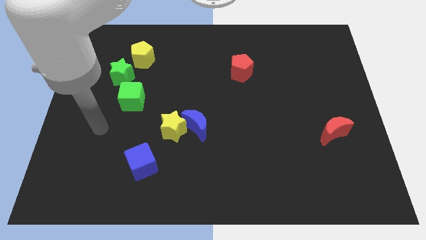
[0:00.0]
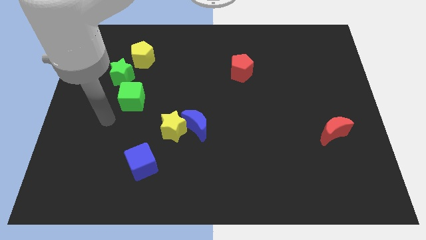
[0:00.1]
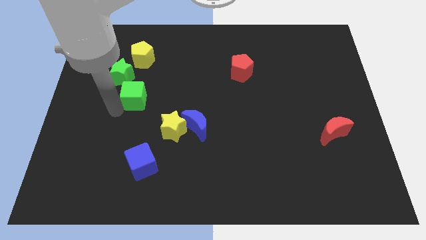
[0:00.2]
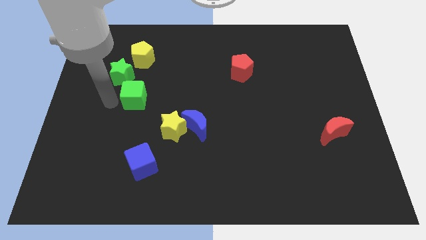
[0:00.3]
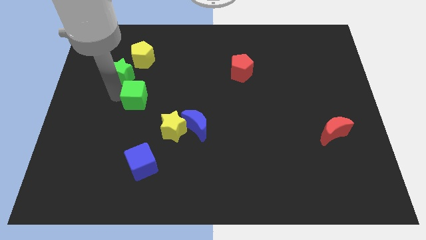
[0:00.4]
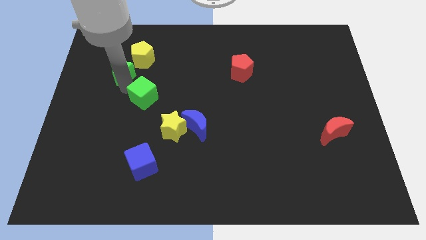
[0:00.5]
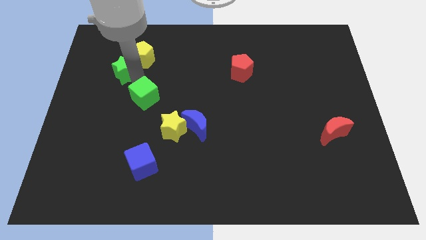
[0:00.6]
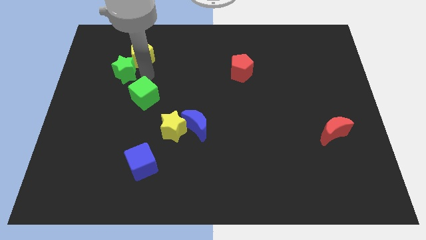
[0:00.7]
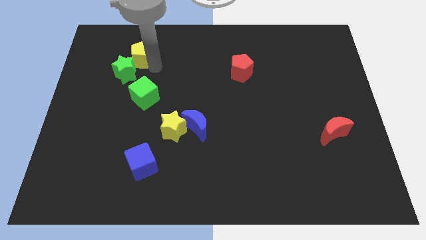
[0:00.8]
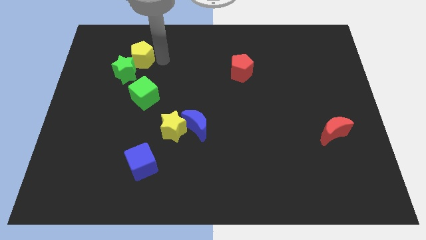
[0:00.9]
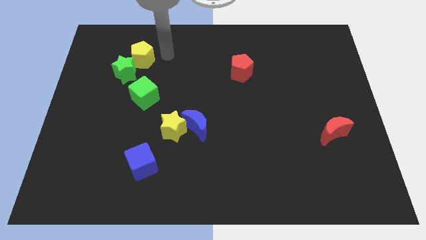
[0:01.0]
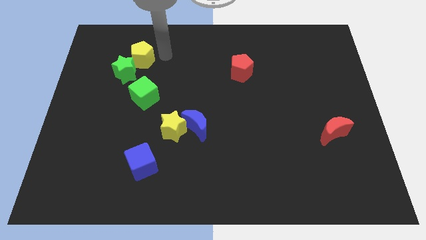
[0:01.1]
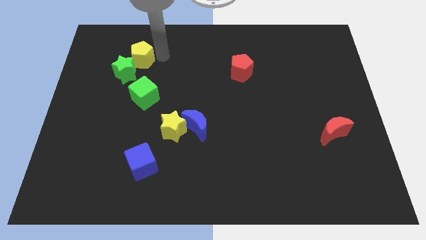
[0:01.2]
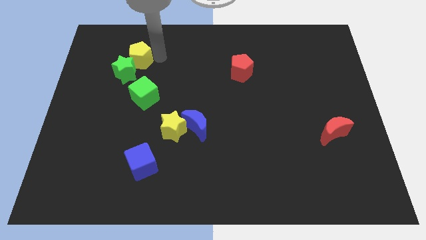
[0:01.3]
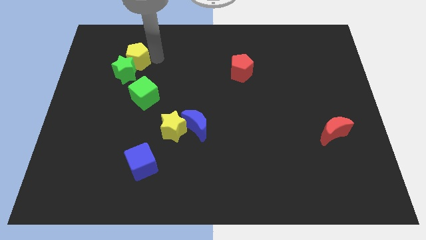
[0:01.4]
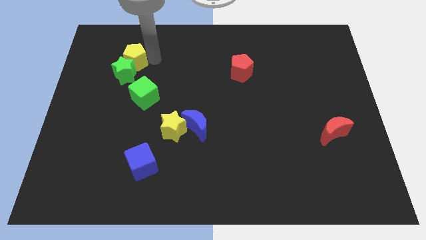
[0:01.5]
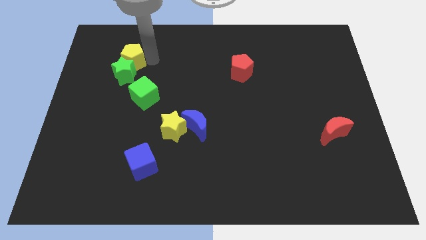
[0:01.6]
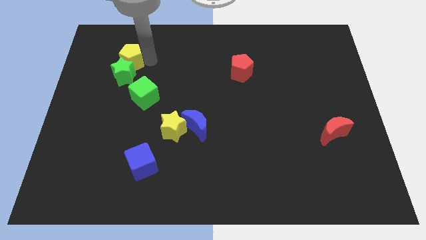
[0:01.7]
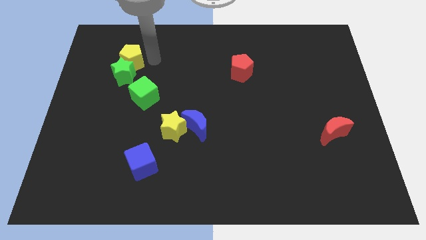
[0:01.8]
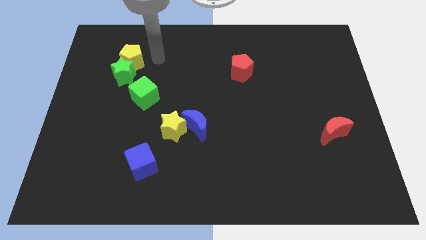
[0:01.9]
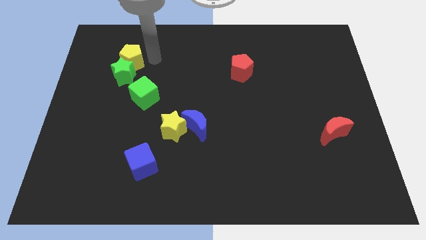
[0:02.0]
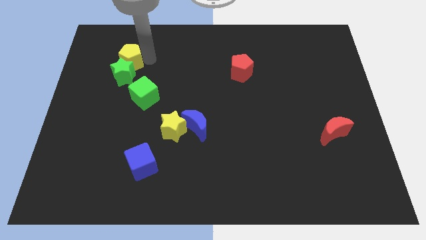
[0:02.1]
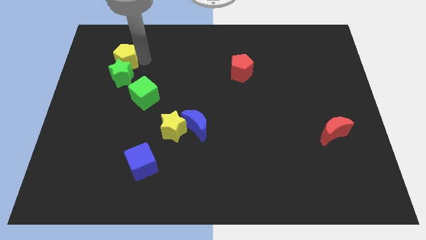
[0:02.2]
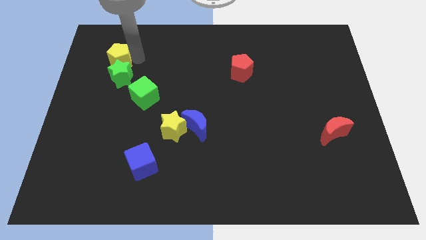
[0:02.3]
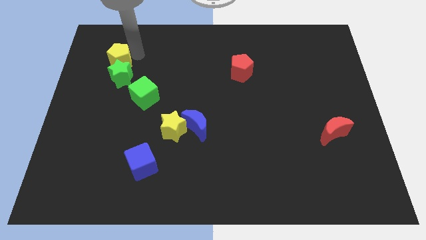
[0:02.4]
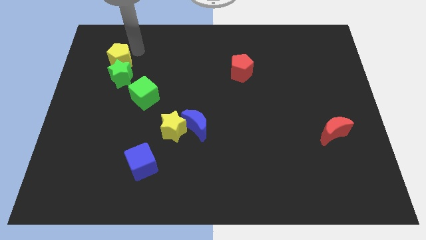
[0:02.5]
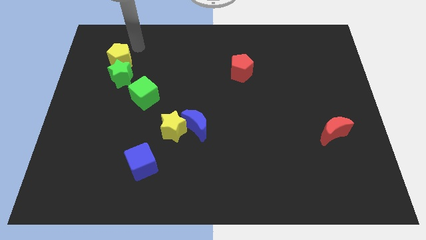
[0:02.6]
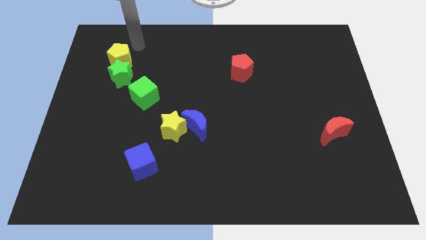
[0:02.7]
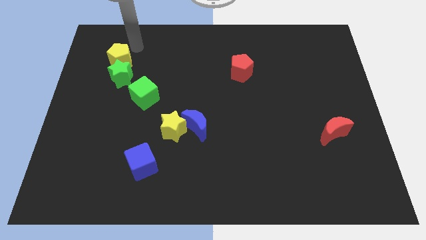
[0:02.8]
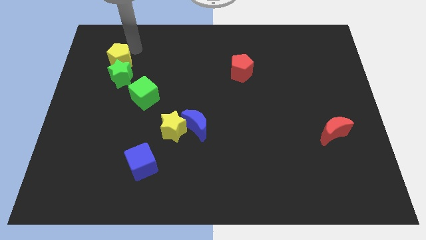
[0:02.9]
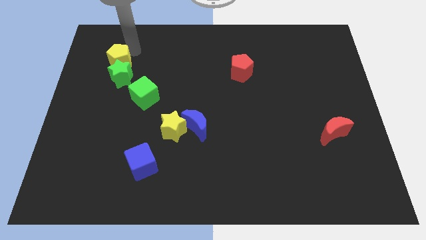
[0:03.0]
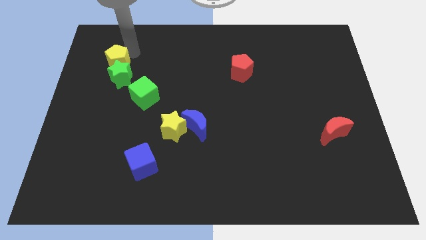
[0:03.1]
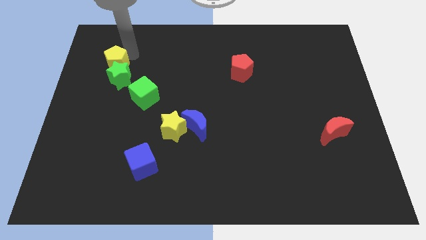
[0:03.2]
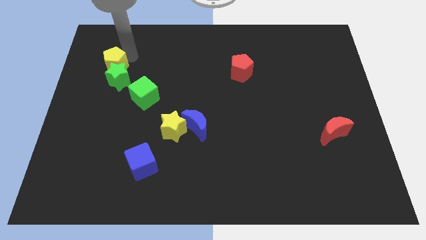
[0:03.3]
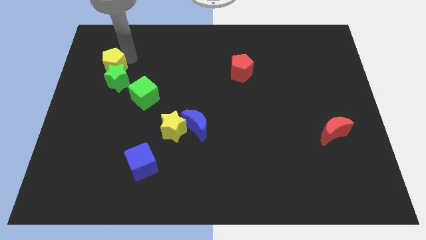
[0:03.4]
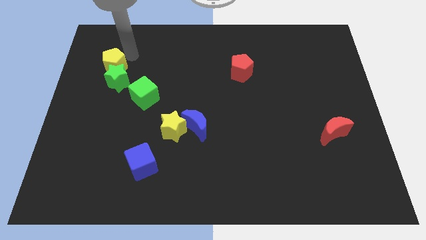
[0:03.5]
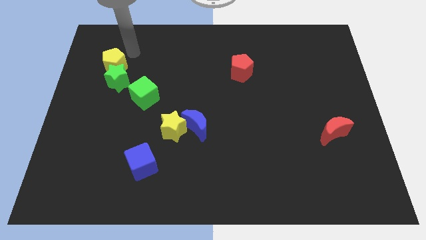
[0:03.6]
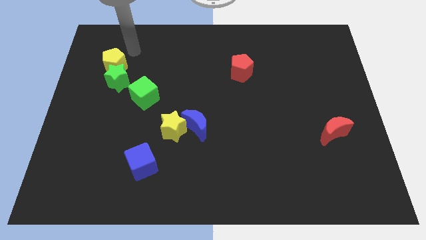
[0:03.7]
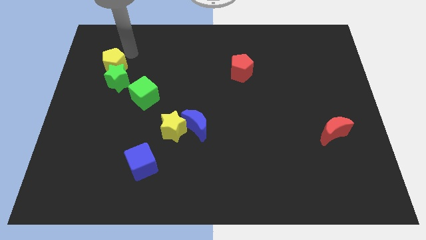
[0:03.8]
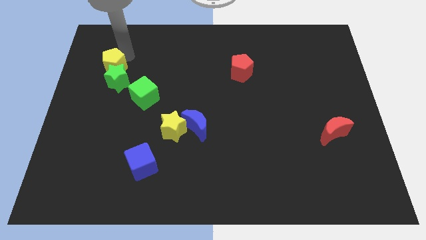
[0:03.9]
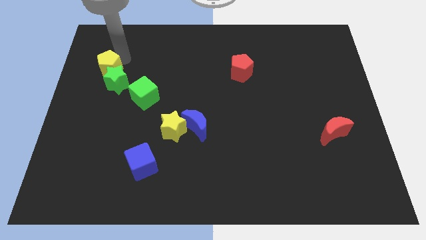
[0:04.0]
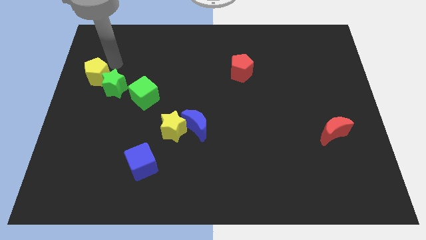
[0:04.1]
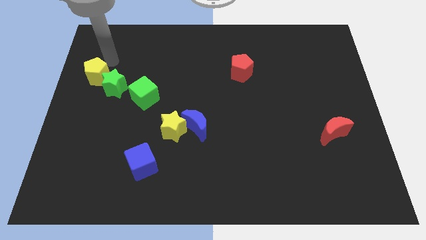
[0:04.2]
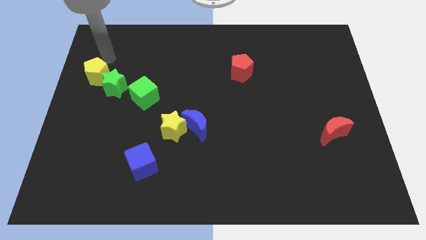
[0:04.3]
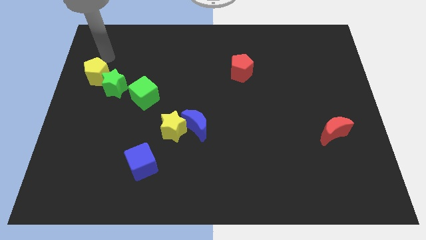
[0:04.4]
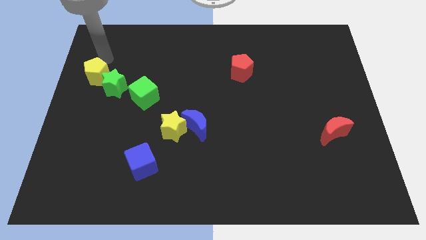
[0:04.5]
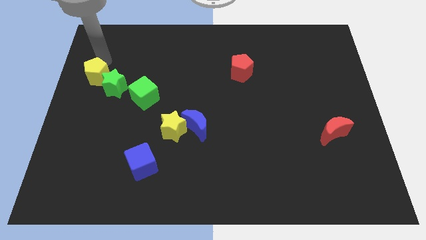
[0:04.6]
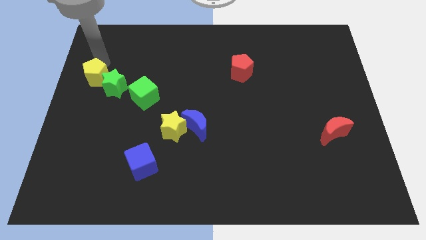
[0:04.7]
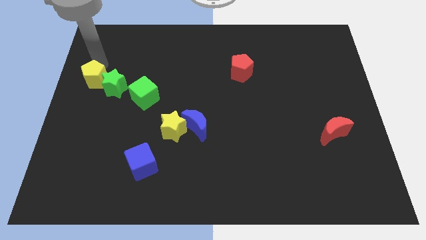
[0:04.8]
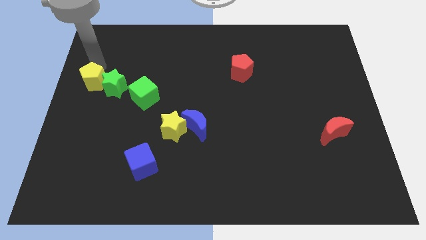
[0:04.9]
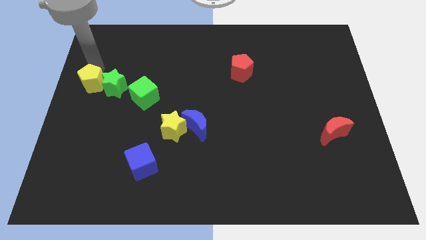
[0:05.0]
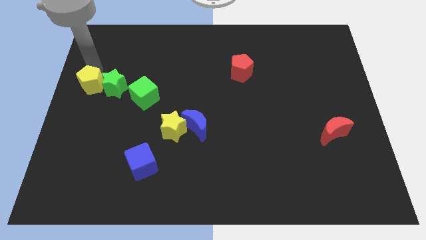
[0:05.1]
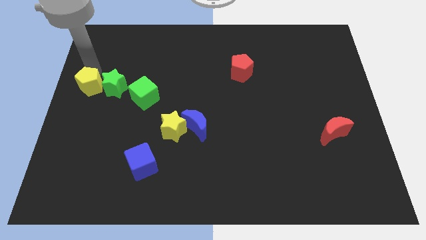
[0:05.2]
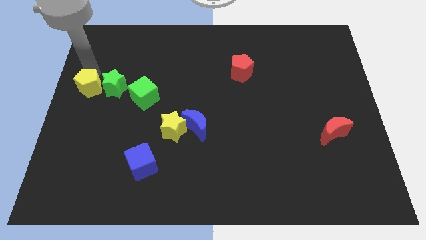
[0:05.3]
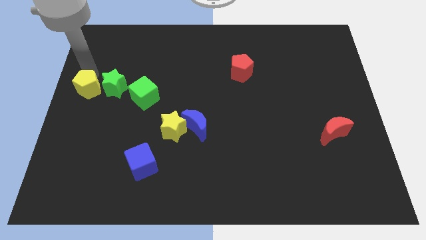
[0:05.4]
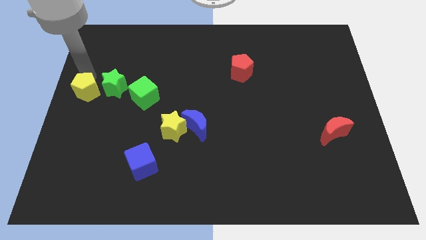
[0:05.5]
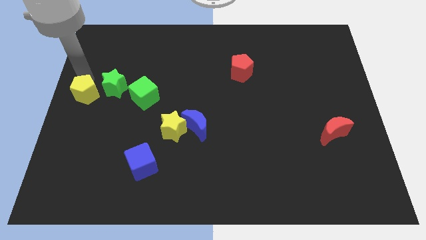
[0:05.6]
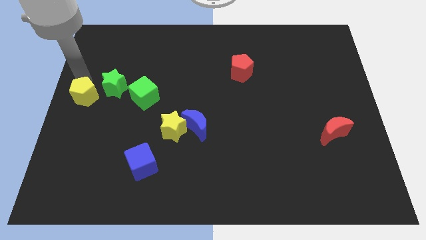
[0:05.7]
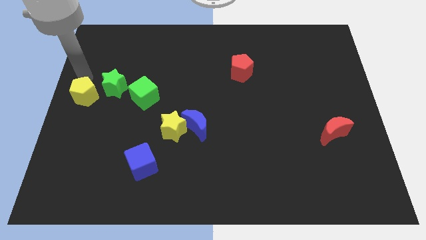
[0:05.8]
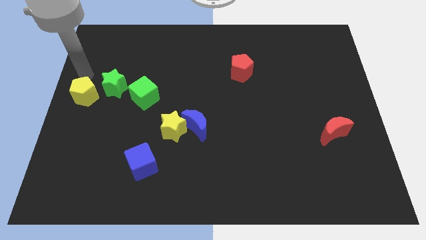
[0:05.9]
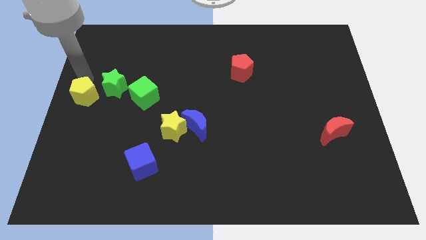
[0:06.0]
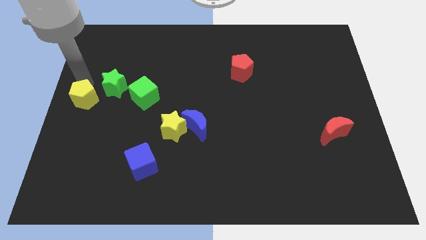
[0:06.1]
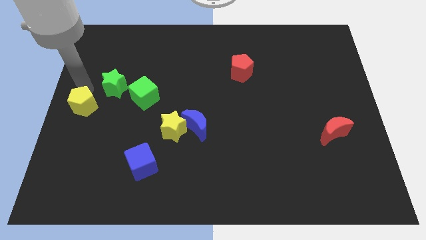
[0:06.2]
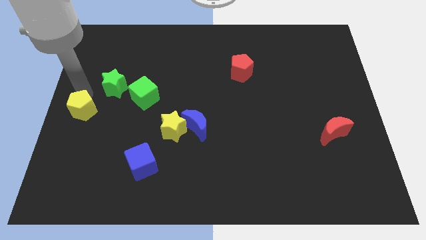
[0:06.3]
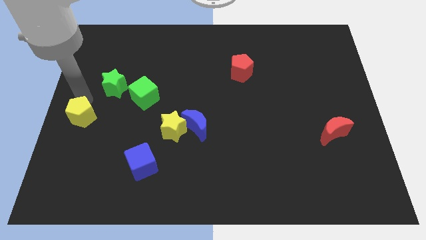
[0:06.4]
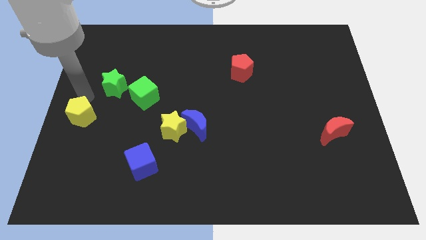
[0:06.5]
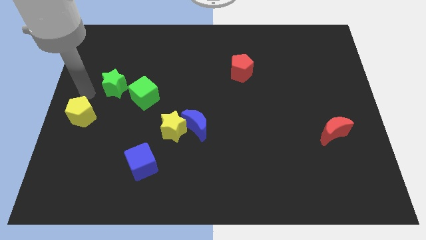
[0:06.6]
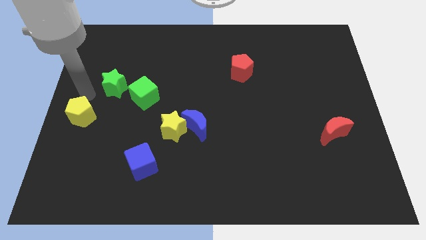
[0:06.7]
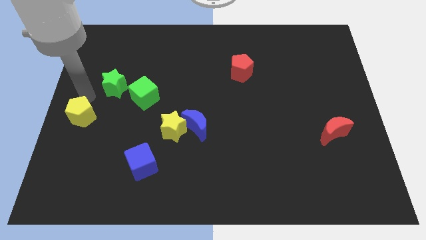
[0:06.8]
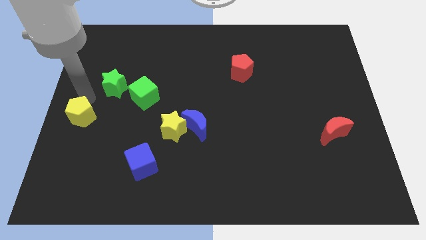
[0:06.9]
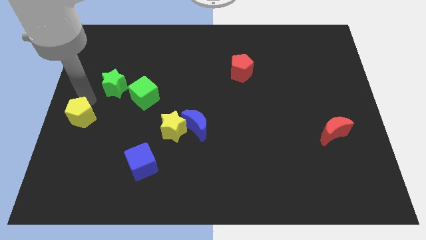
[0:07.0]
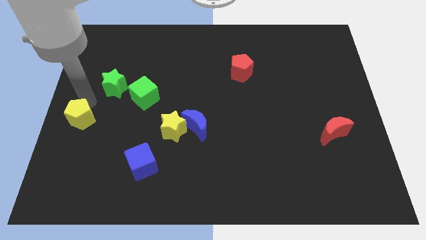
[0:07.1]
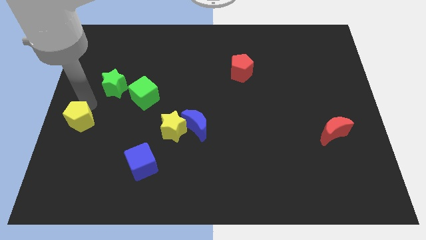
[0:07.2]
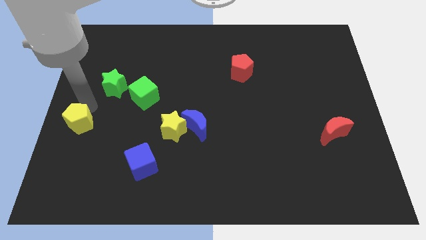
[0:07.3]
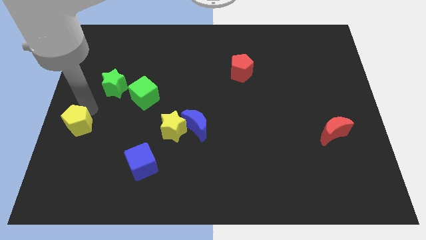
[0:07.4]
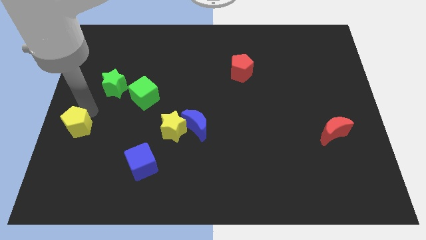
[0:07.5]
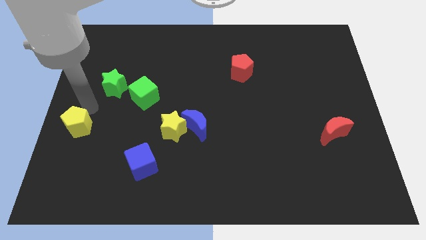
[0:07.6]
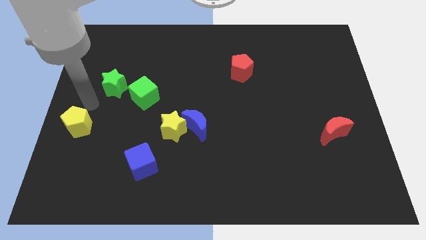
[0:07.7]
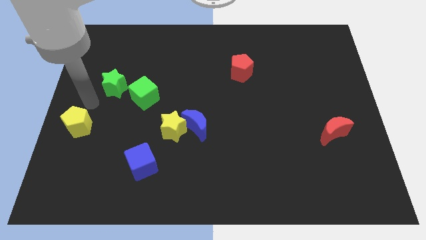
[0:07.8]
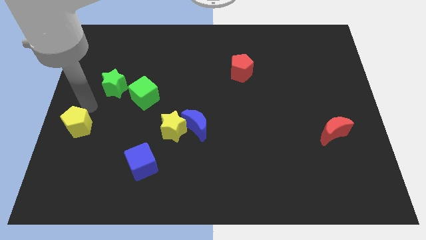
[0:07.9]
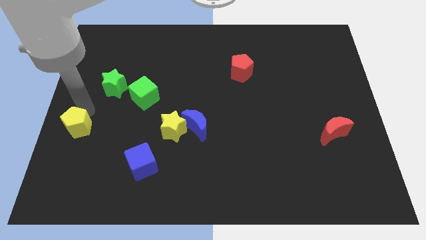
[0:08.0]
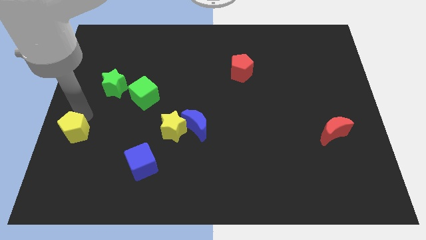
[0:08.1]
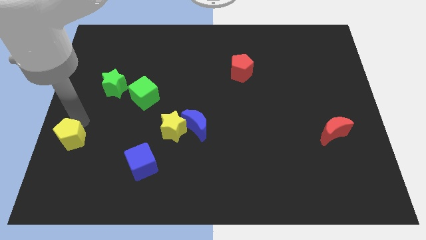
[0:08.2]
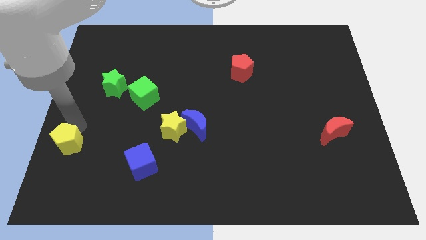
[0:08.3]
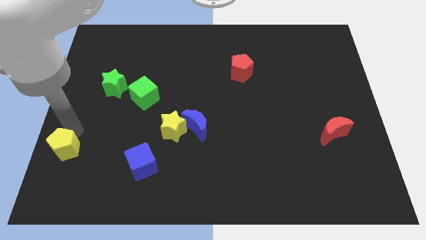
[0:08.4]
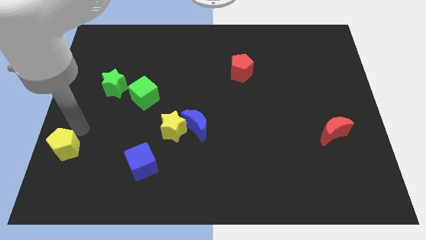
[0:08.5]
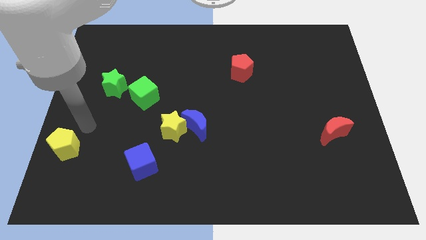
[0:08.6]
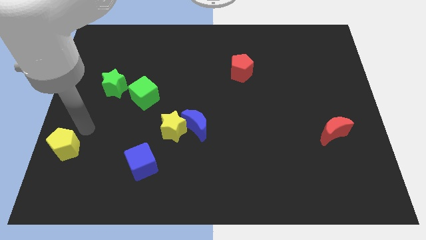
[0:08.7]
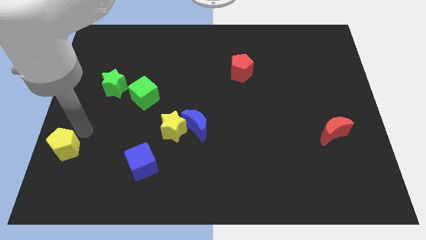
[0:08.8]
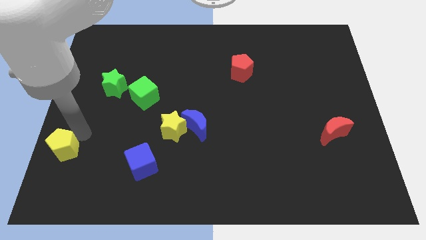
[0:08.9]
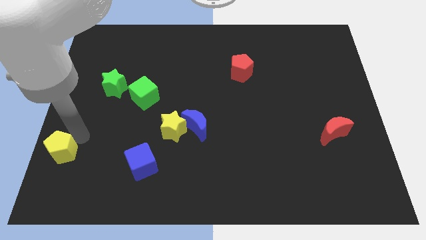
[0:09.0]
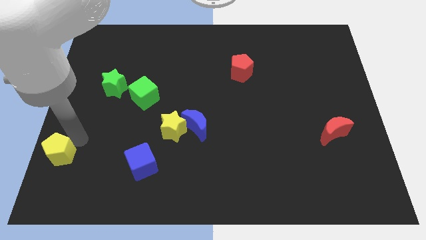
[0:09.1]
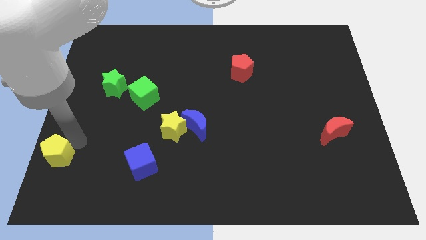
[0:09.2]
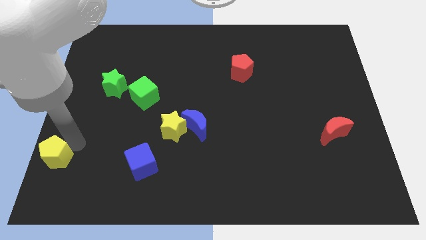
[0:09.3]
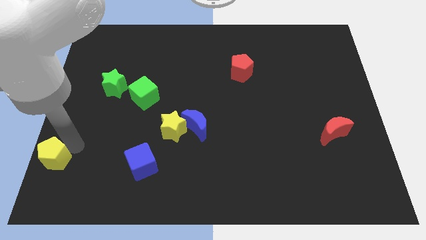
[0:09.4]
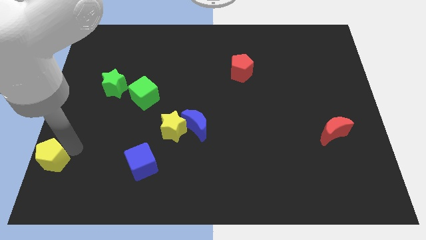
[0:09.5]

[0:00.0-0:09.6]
slide the yellow pentagon to the bottom left of the board
